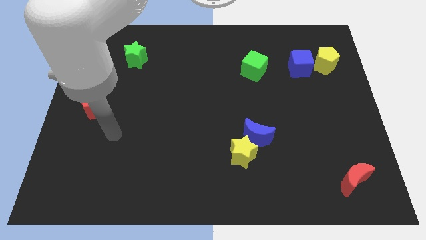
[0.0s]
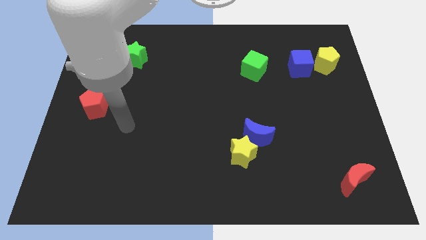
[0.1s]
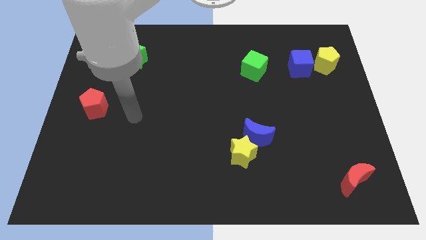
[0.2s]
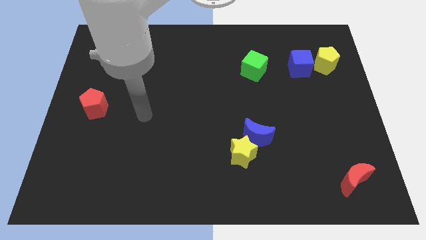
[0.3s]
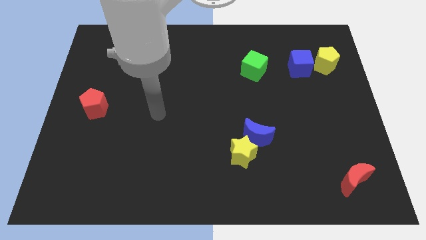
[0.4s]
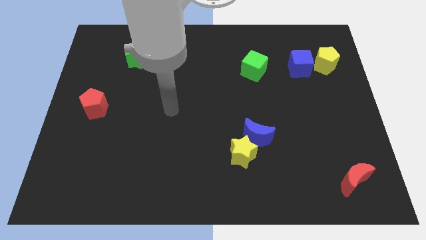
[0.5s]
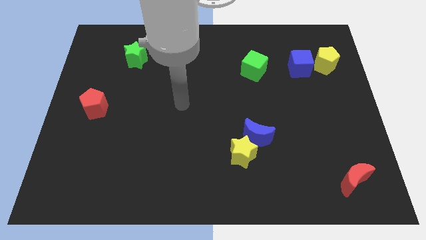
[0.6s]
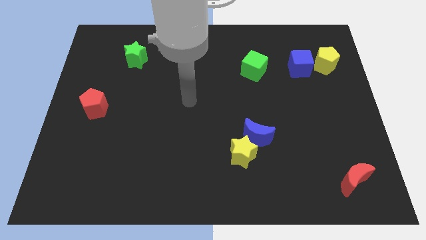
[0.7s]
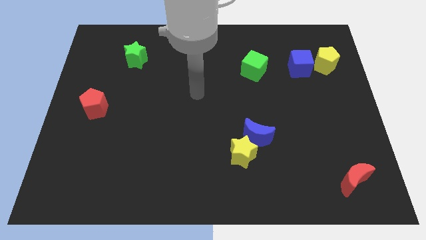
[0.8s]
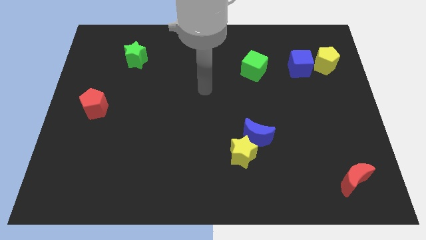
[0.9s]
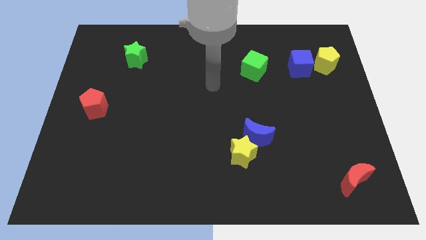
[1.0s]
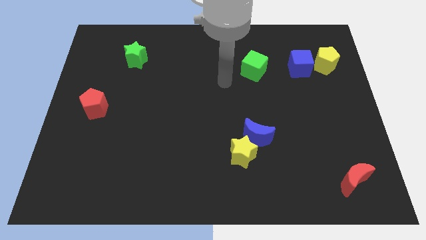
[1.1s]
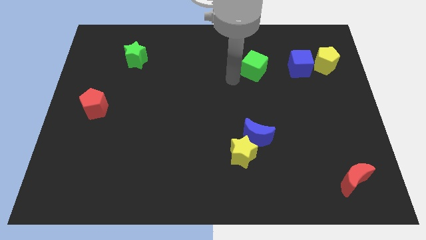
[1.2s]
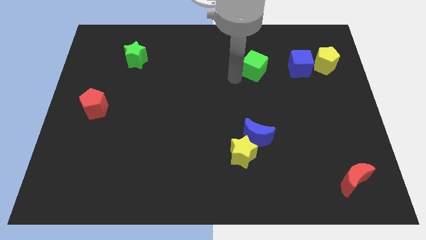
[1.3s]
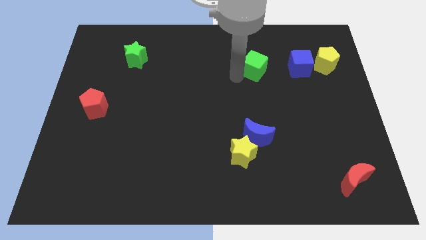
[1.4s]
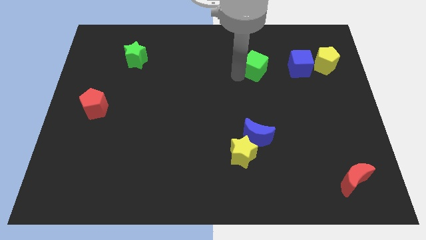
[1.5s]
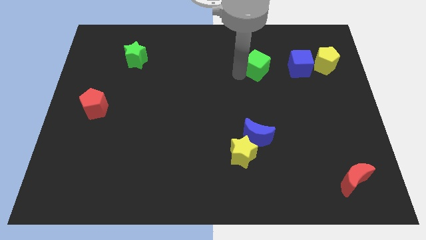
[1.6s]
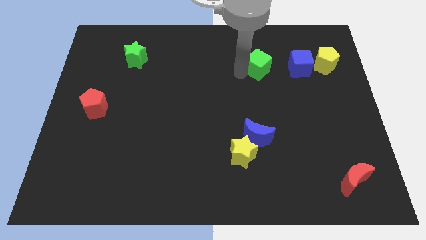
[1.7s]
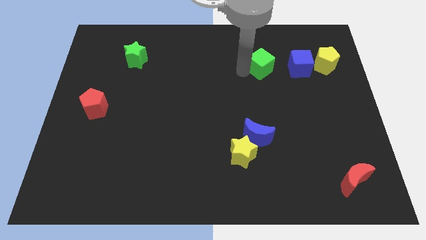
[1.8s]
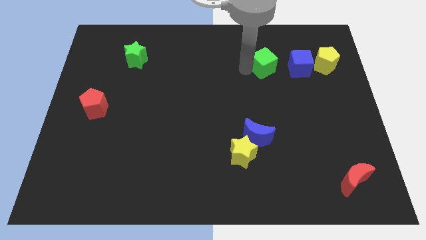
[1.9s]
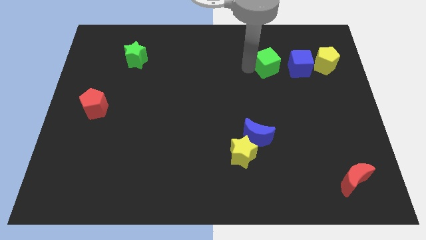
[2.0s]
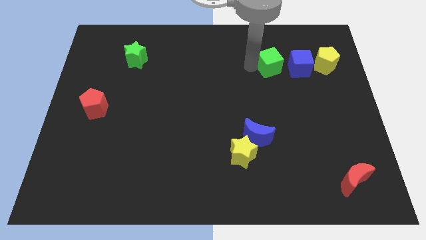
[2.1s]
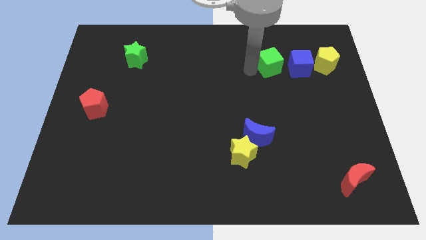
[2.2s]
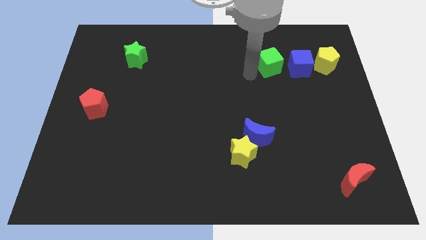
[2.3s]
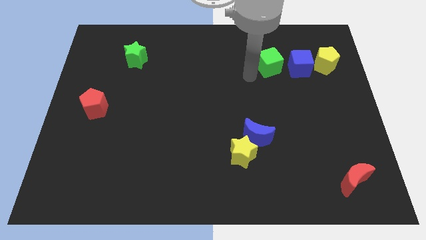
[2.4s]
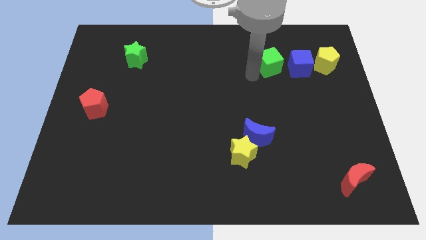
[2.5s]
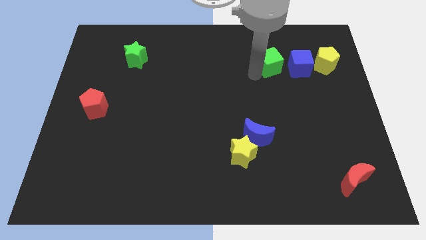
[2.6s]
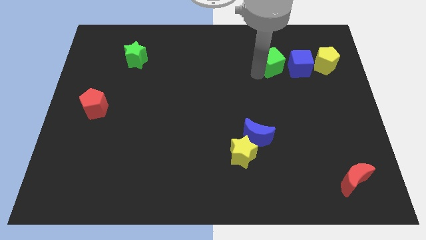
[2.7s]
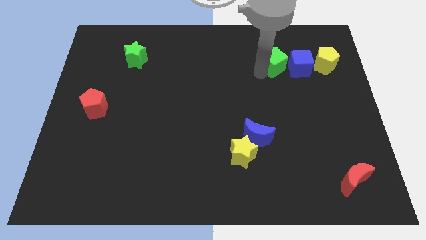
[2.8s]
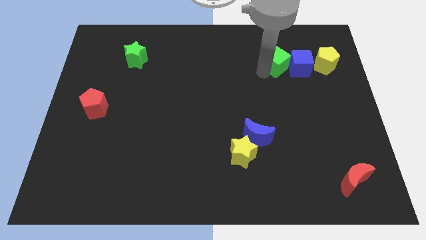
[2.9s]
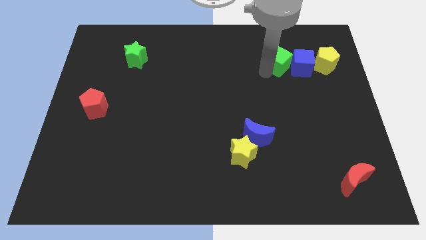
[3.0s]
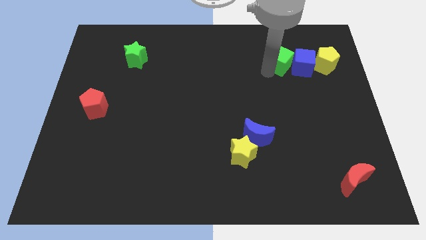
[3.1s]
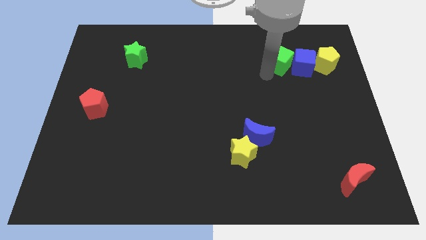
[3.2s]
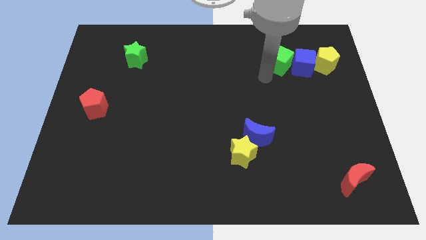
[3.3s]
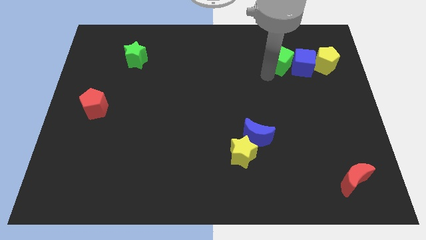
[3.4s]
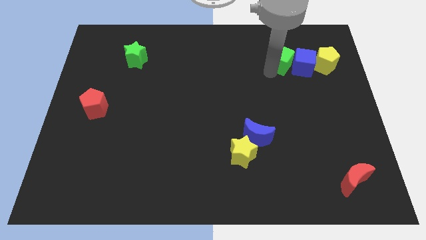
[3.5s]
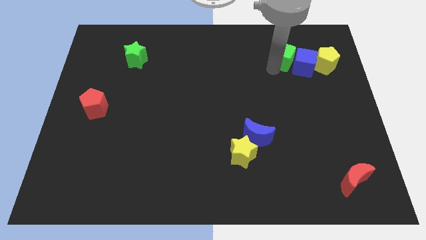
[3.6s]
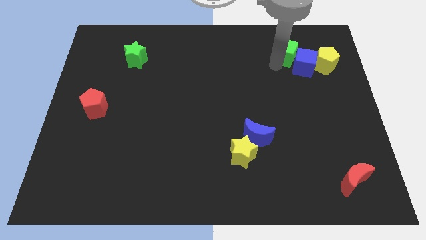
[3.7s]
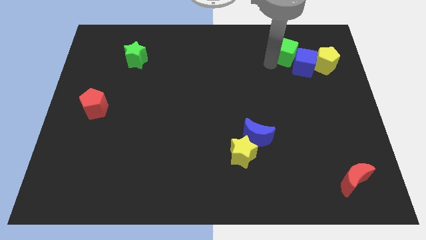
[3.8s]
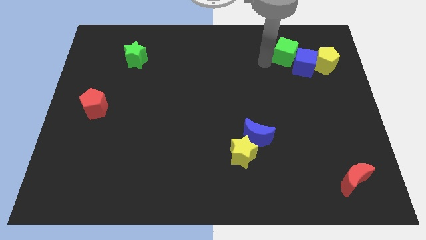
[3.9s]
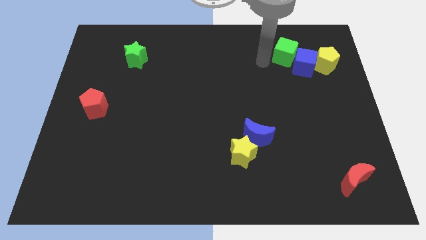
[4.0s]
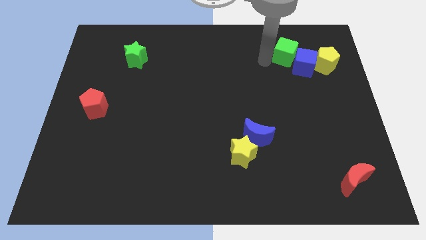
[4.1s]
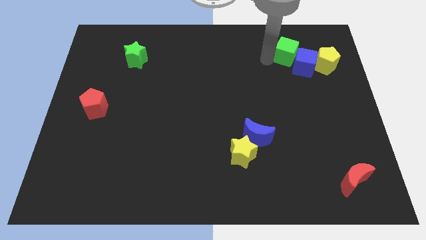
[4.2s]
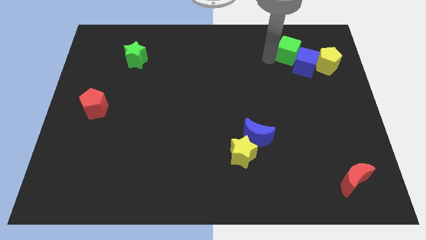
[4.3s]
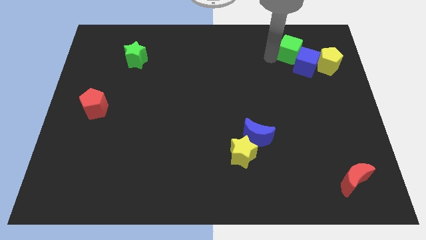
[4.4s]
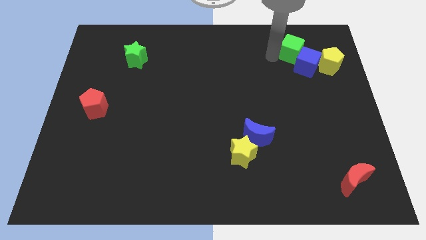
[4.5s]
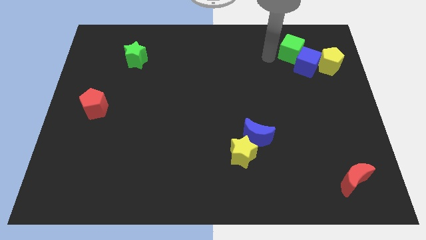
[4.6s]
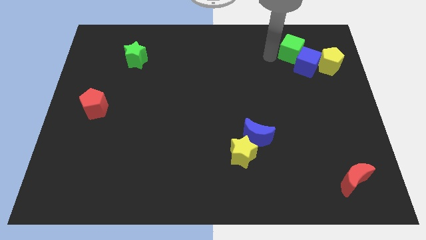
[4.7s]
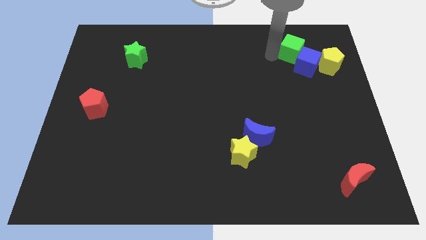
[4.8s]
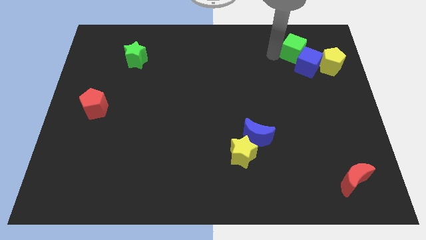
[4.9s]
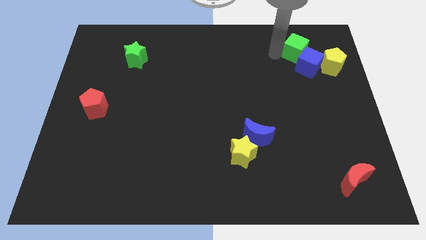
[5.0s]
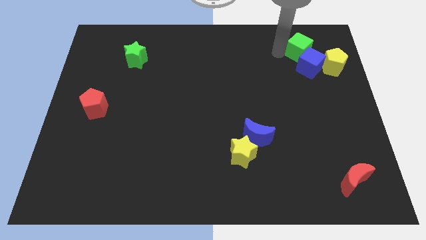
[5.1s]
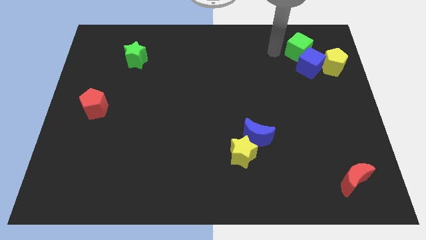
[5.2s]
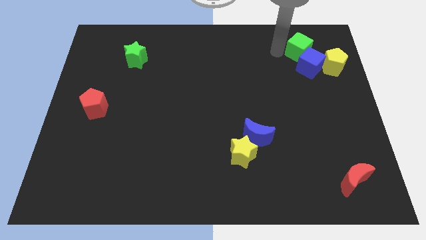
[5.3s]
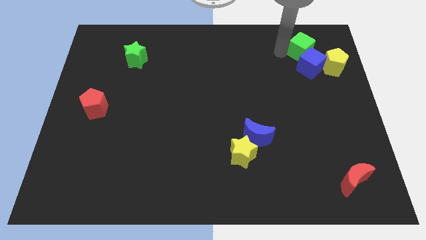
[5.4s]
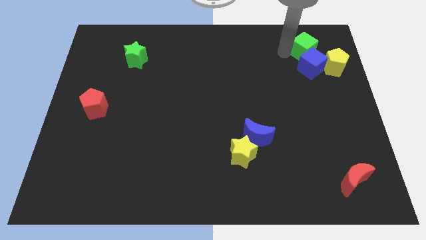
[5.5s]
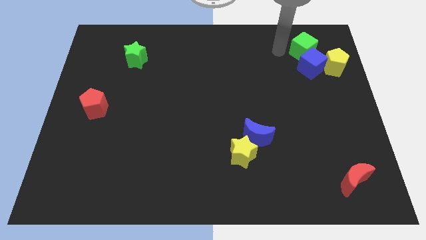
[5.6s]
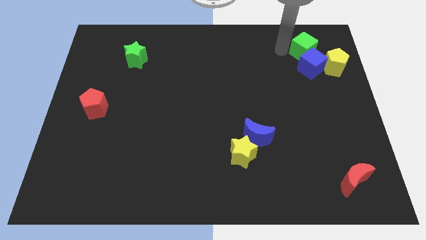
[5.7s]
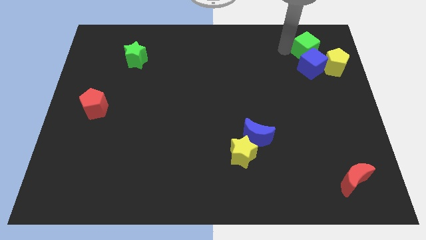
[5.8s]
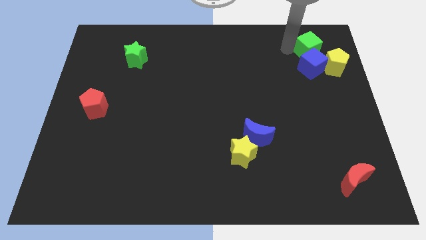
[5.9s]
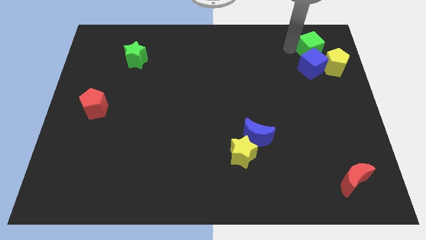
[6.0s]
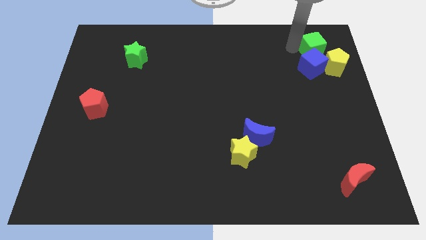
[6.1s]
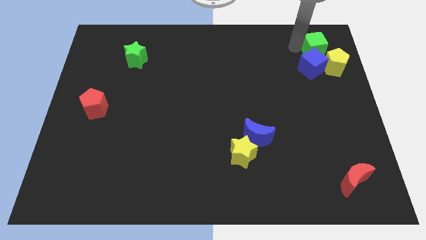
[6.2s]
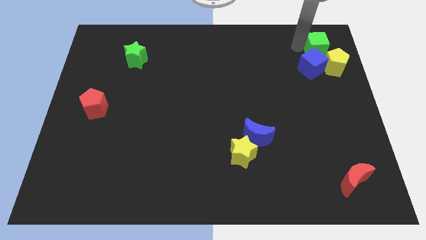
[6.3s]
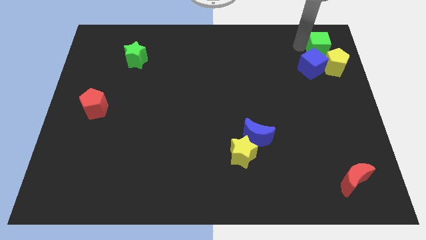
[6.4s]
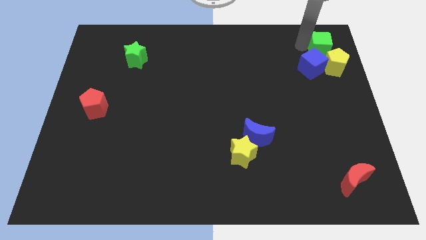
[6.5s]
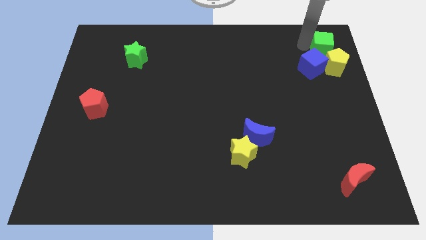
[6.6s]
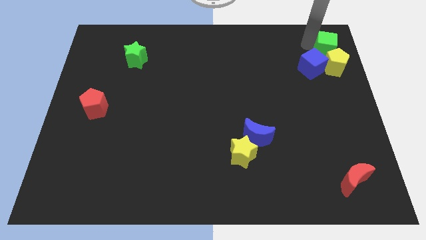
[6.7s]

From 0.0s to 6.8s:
push the green cube to the top right of the board
